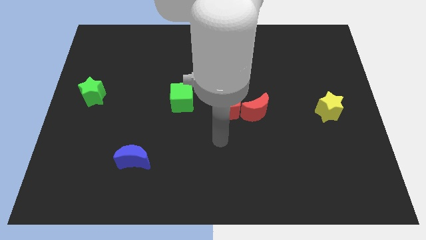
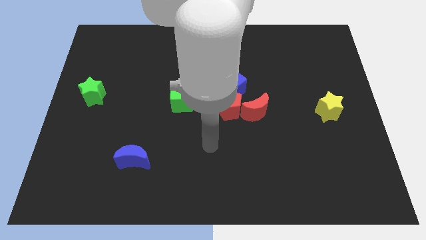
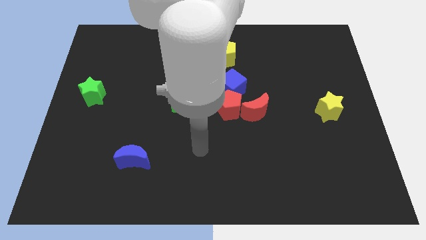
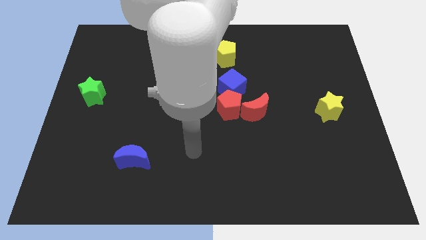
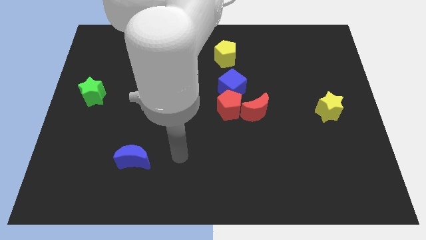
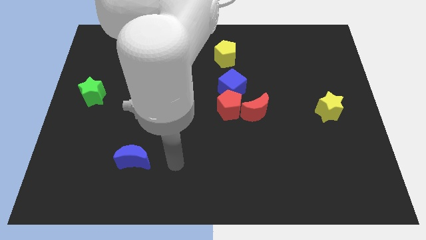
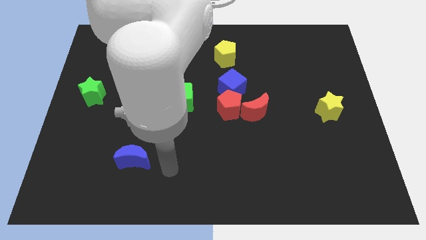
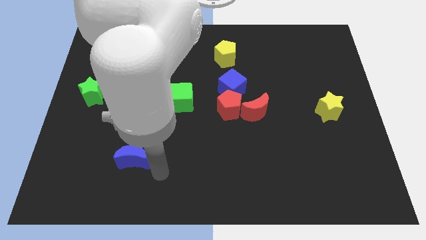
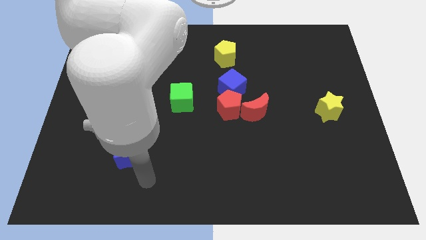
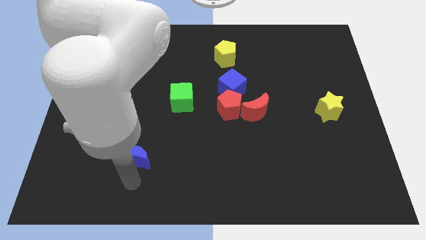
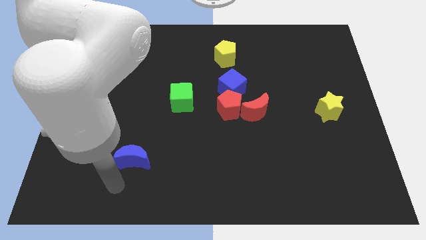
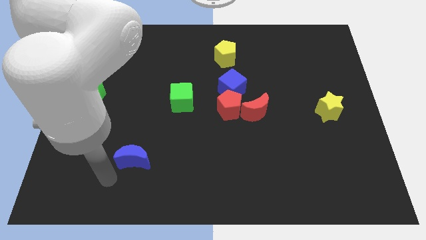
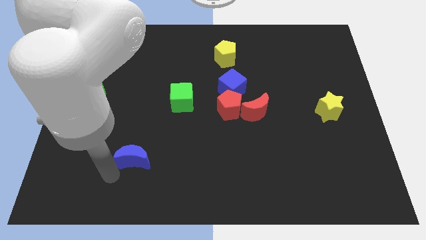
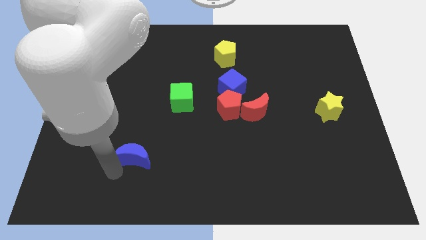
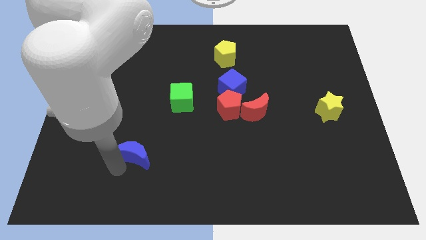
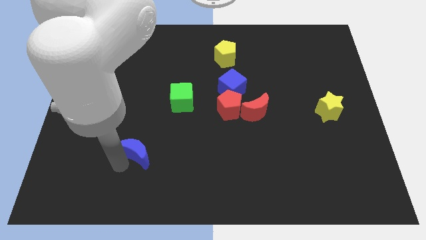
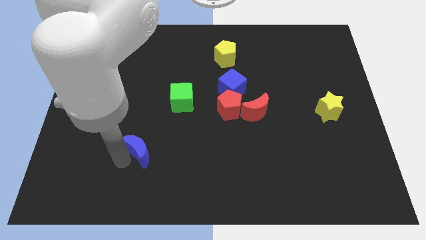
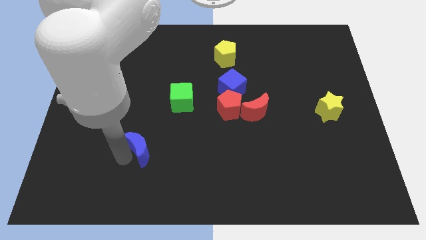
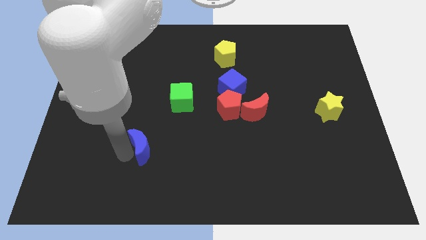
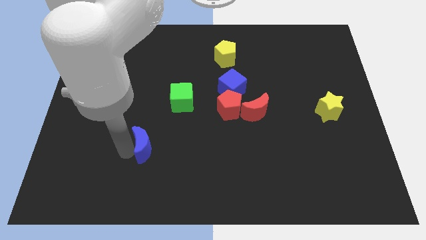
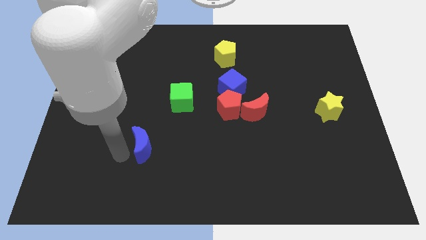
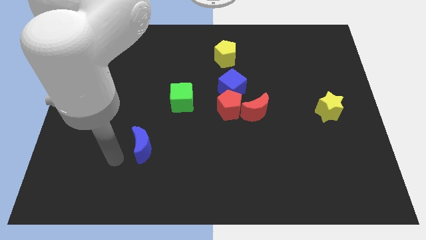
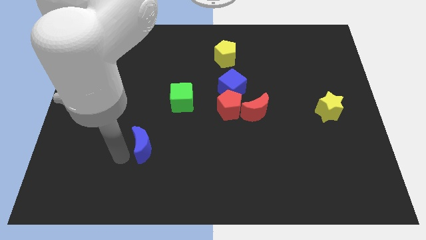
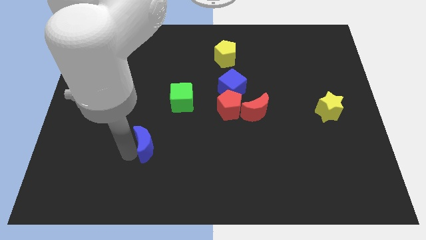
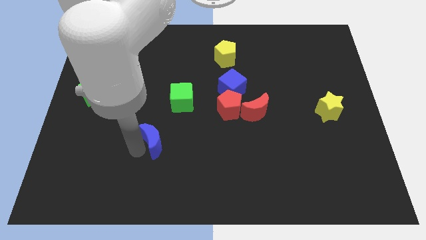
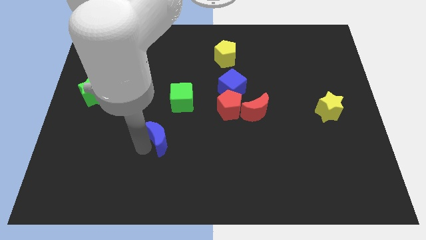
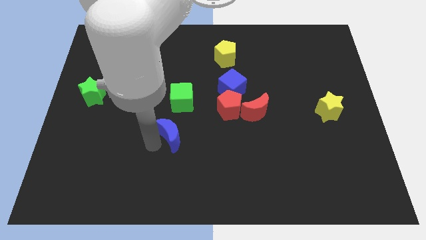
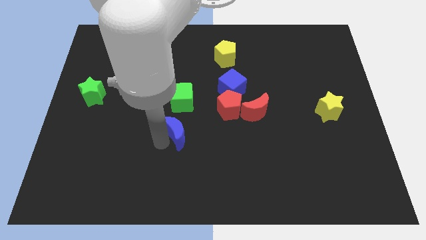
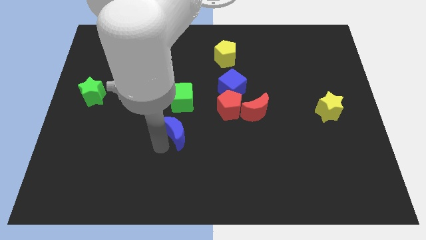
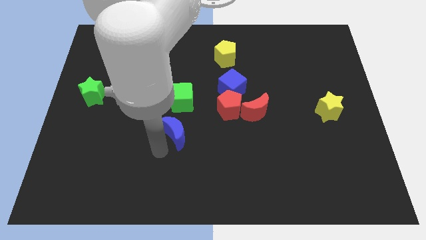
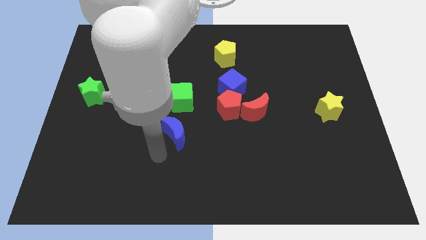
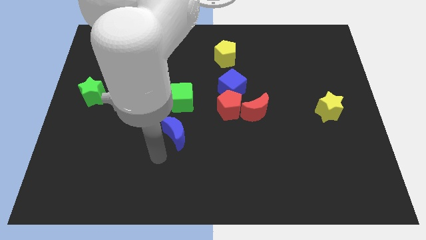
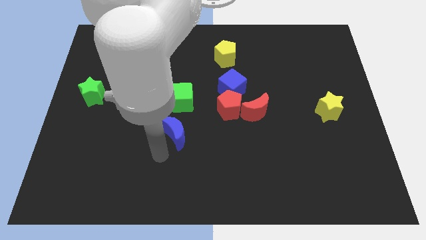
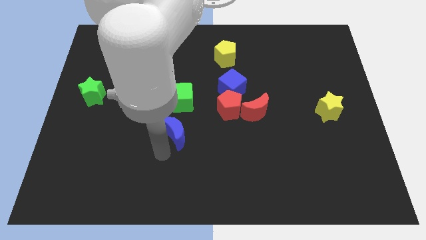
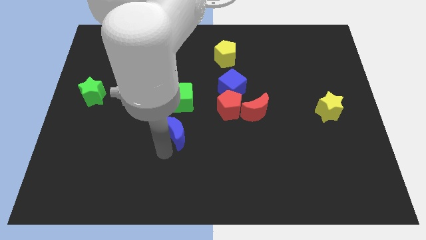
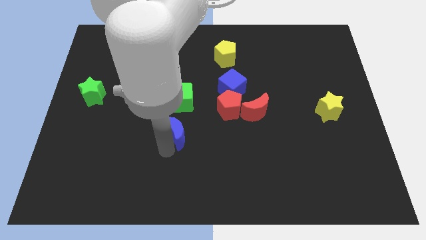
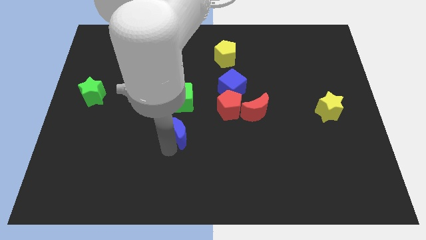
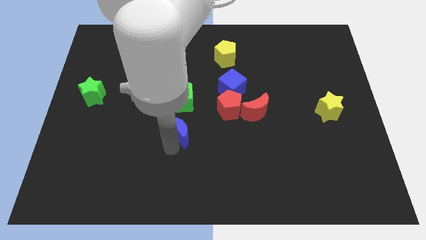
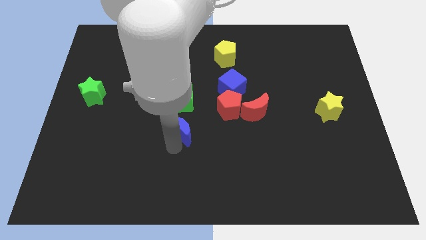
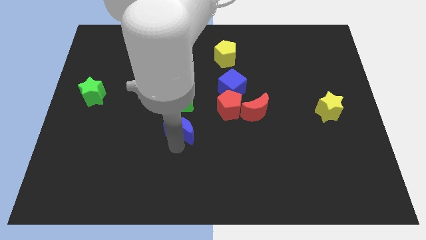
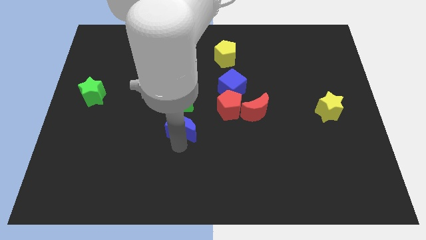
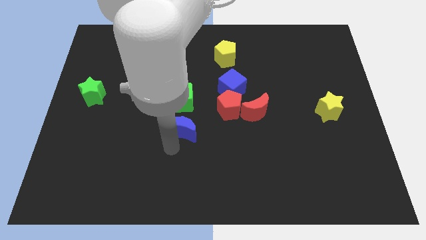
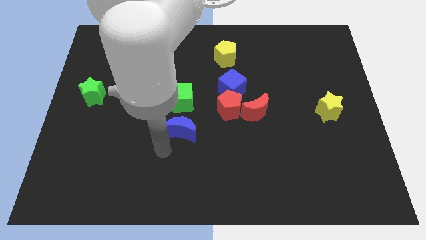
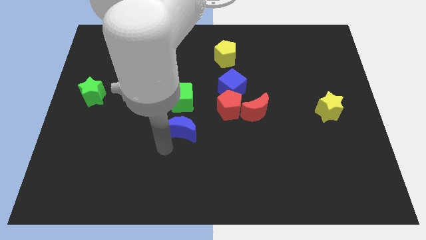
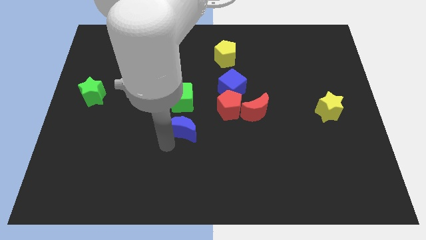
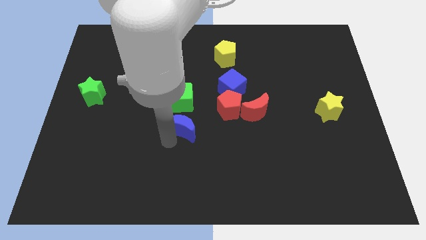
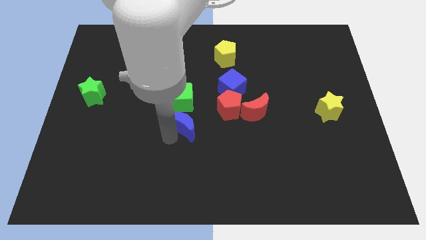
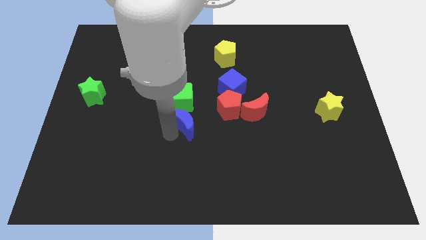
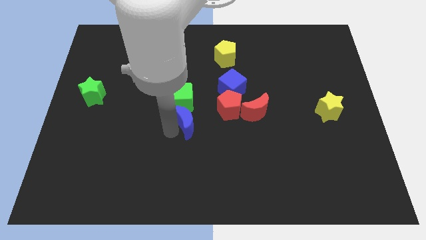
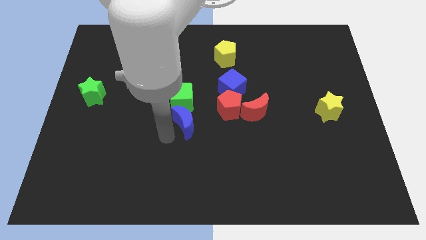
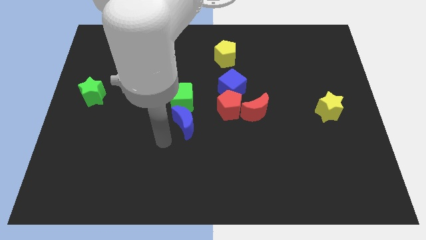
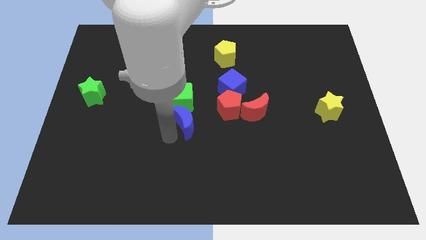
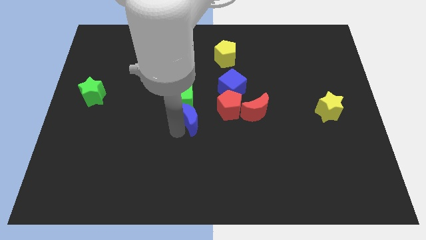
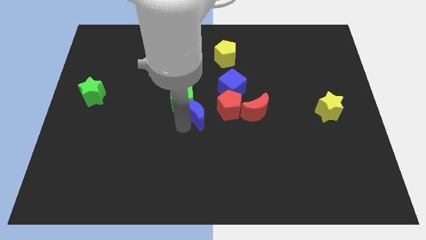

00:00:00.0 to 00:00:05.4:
put the blue moon to the bottom left side of the blue cube

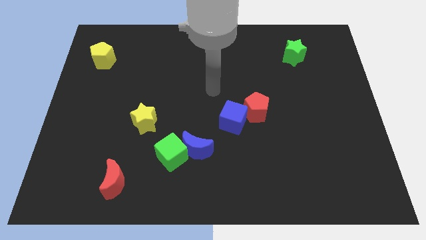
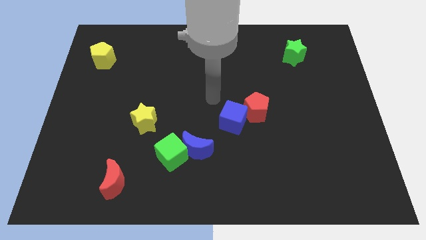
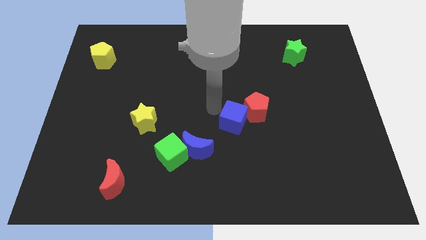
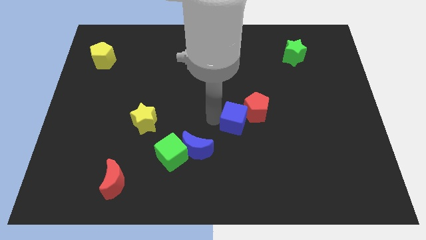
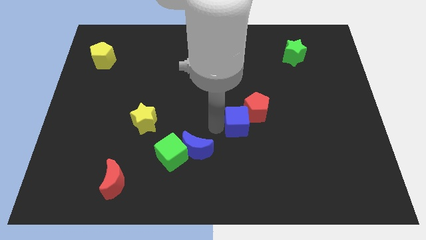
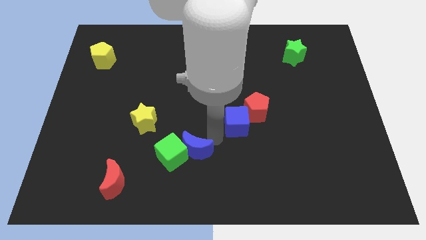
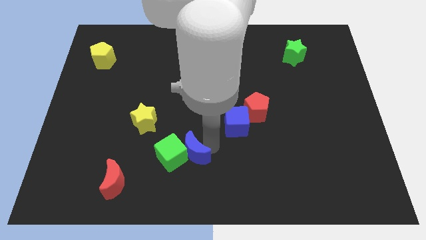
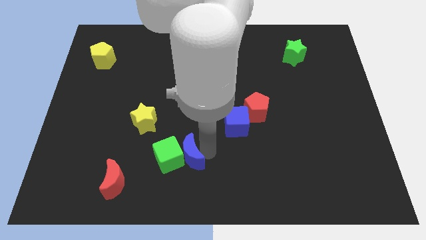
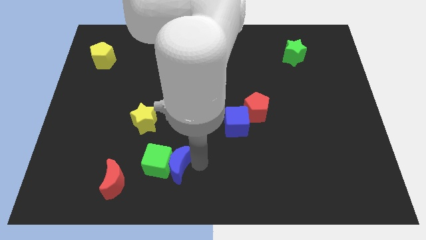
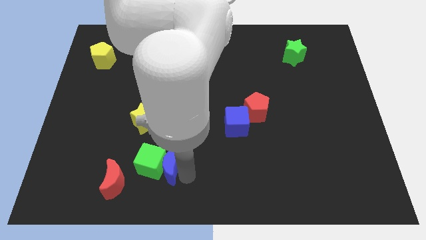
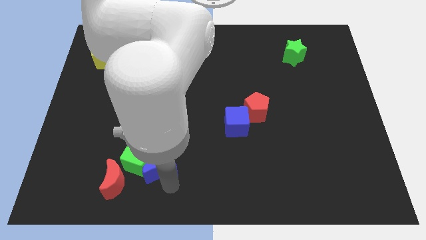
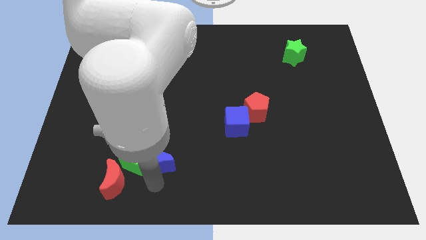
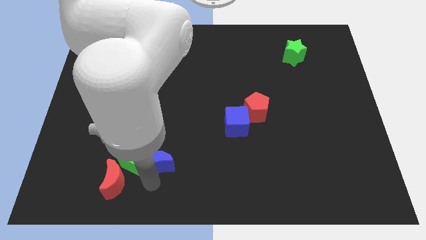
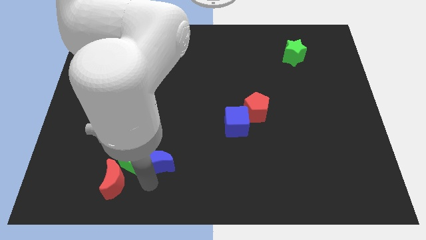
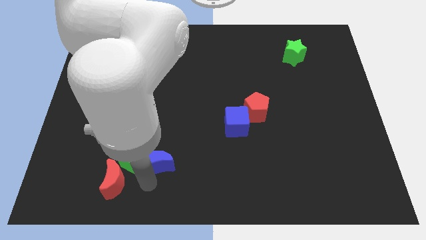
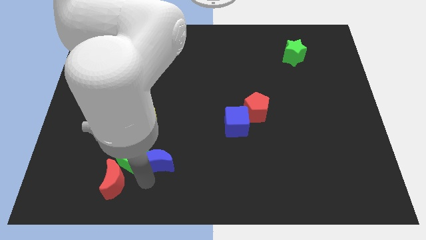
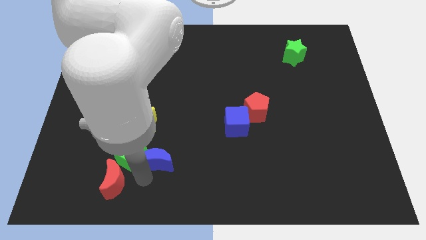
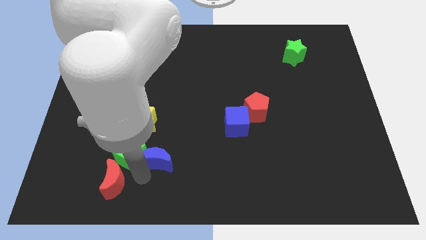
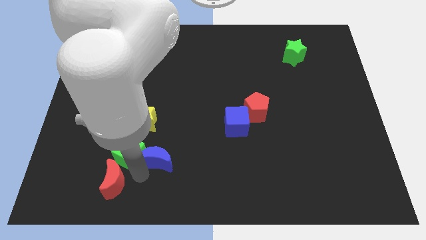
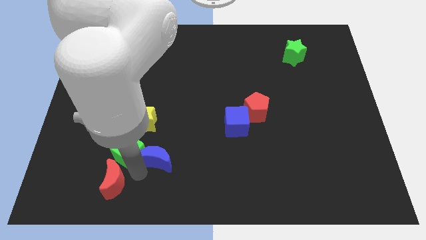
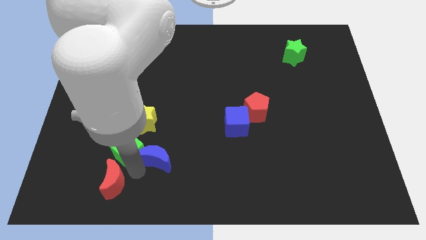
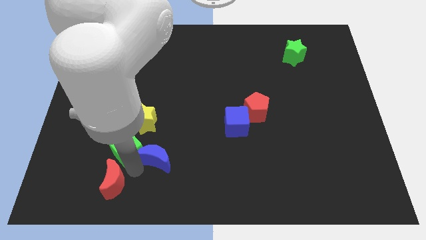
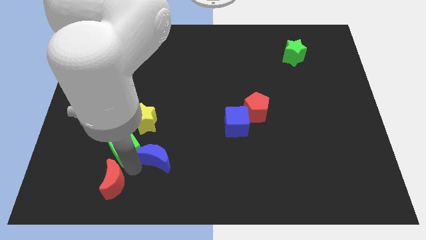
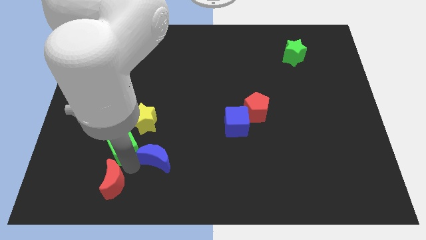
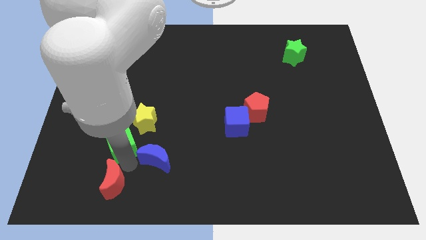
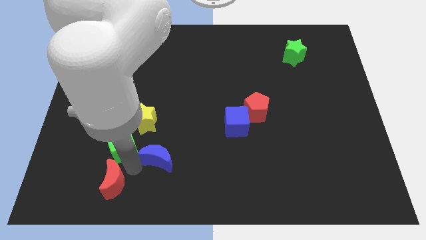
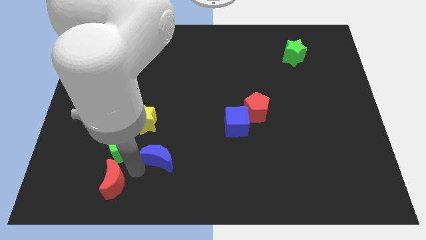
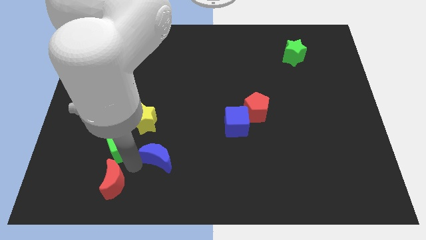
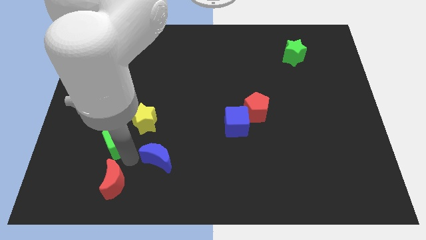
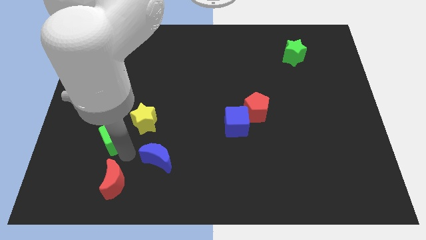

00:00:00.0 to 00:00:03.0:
put the green cube to the left of the yellow star
